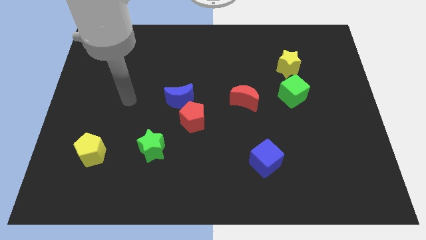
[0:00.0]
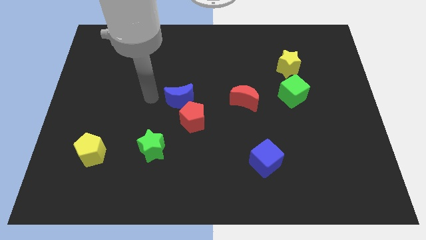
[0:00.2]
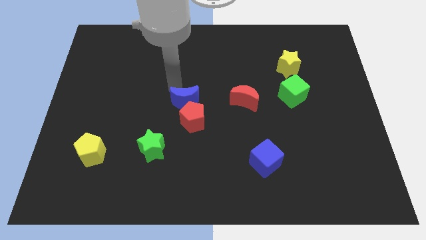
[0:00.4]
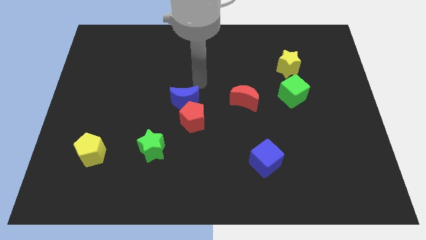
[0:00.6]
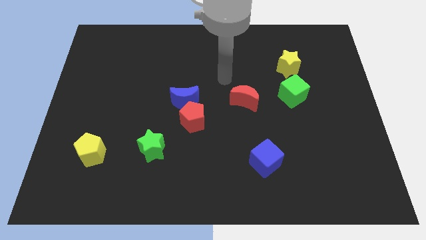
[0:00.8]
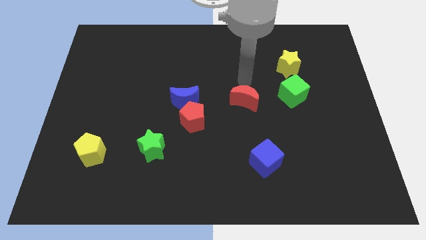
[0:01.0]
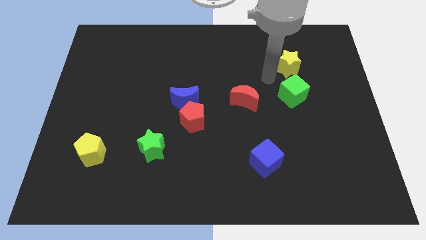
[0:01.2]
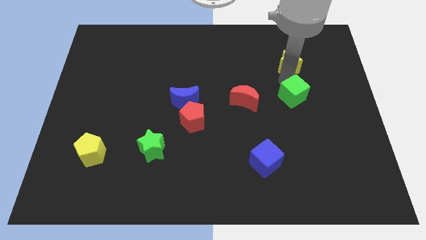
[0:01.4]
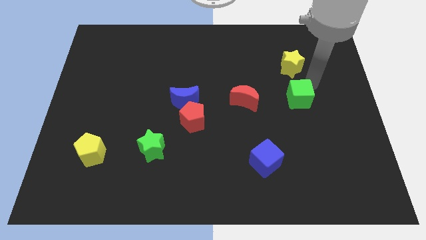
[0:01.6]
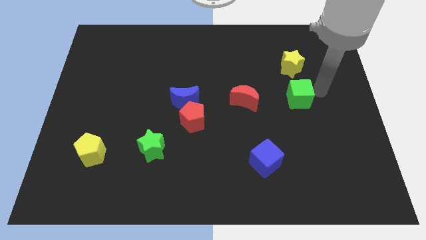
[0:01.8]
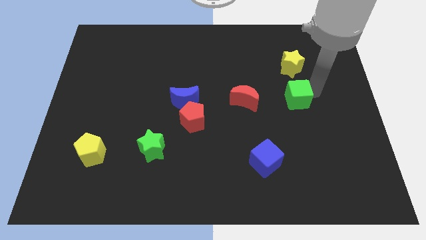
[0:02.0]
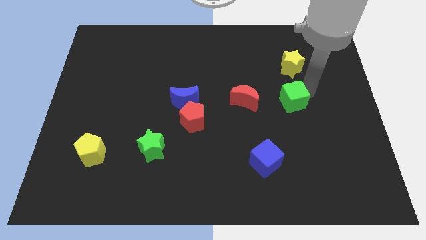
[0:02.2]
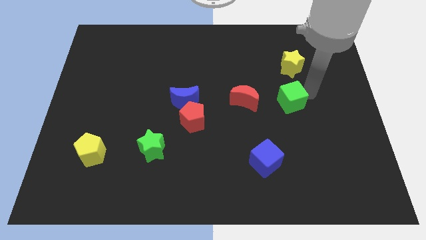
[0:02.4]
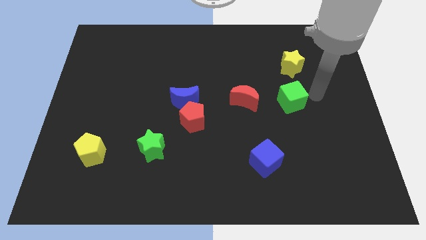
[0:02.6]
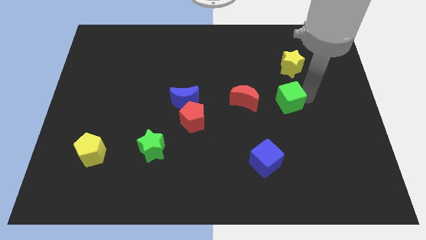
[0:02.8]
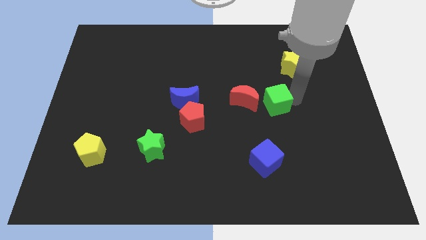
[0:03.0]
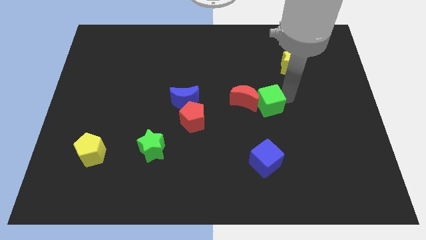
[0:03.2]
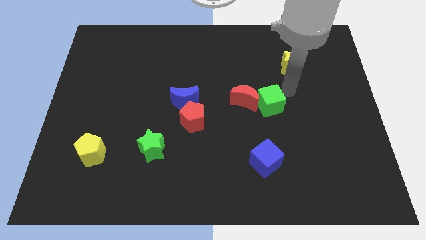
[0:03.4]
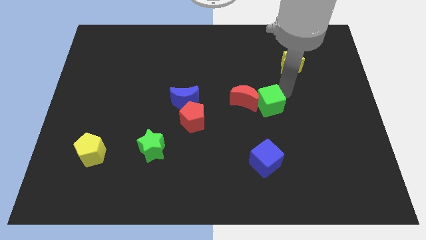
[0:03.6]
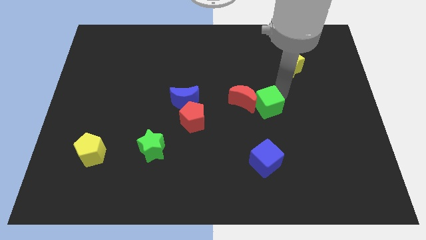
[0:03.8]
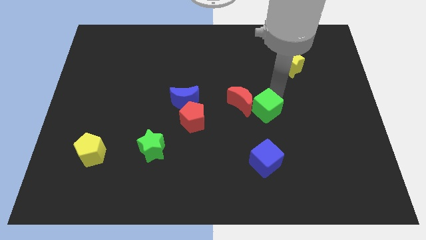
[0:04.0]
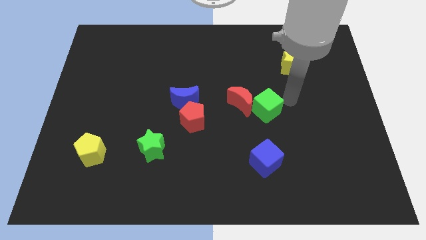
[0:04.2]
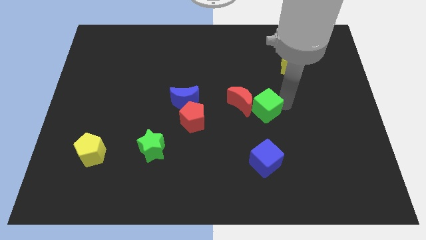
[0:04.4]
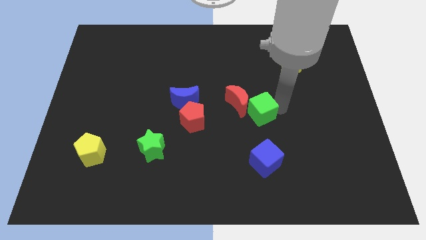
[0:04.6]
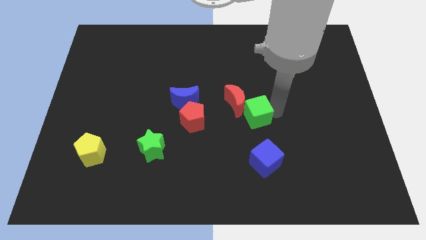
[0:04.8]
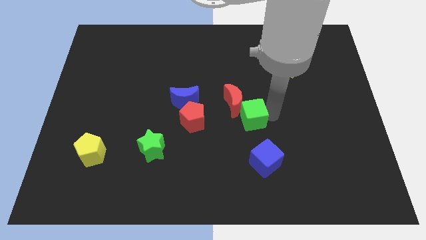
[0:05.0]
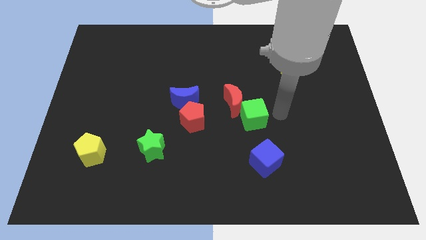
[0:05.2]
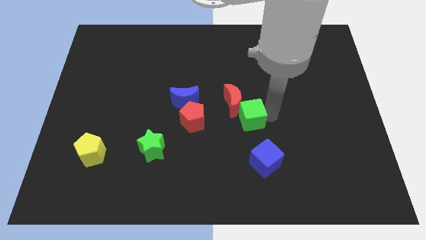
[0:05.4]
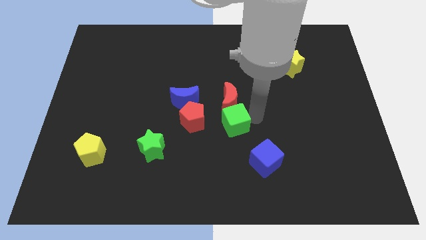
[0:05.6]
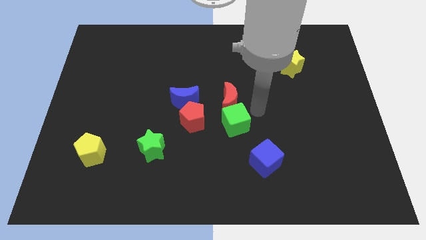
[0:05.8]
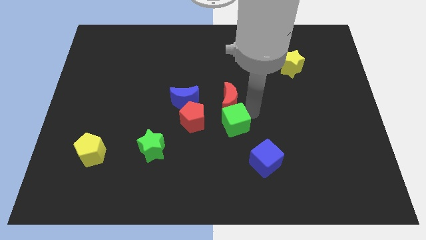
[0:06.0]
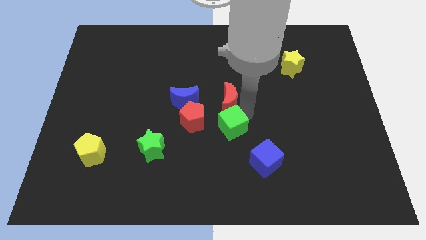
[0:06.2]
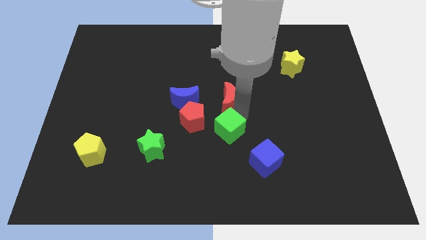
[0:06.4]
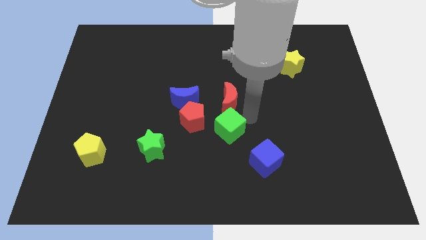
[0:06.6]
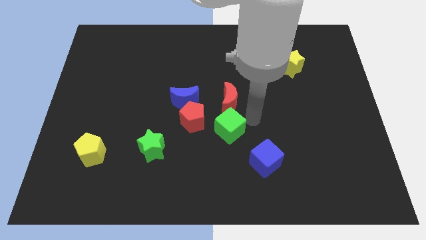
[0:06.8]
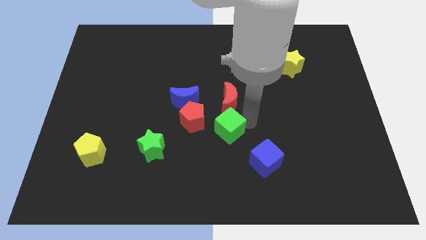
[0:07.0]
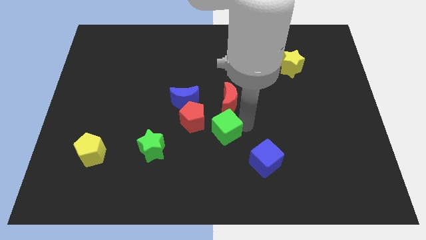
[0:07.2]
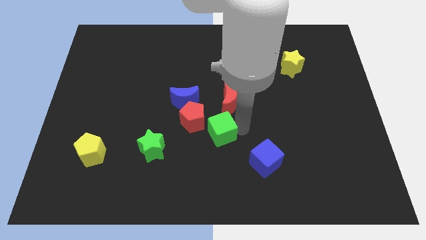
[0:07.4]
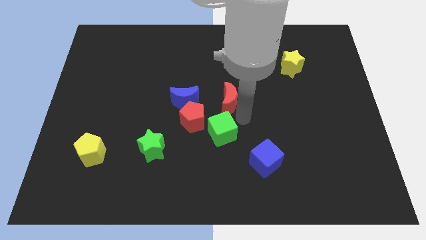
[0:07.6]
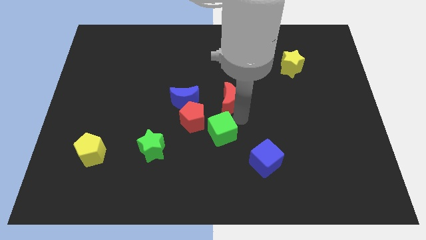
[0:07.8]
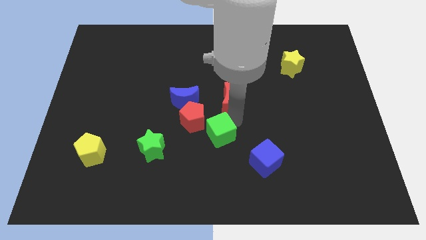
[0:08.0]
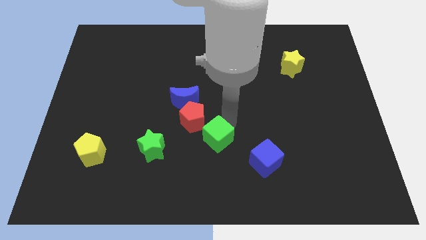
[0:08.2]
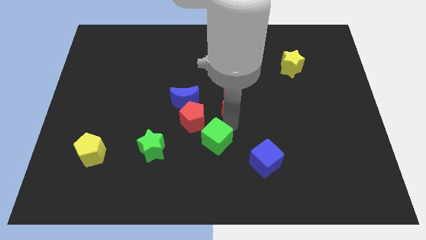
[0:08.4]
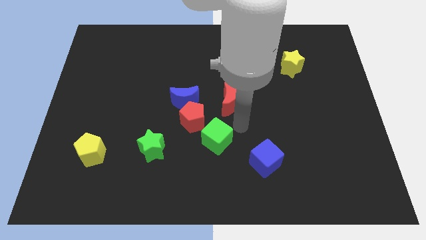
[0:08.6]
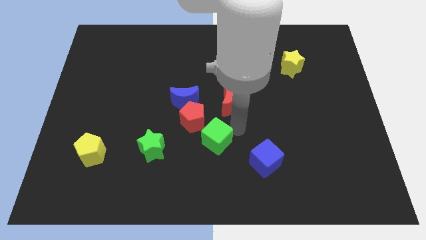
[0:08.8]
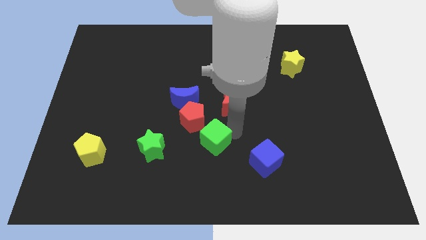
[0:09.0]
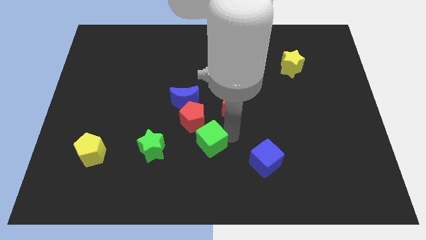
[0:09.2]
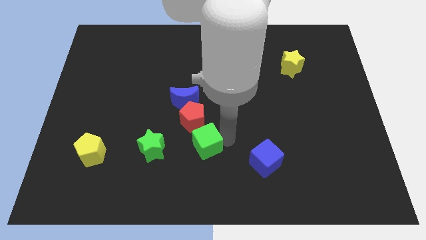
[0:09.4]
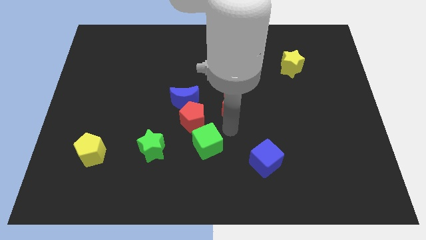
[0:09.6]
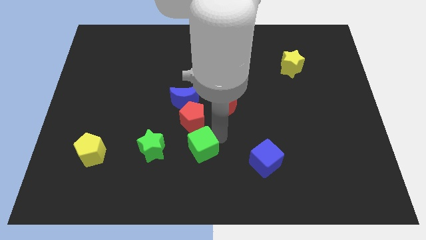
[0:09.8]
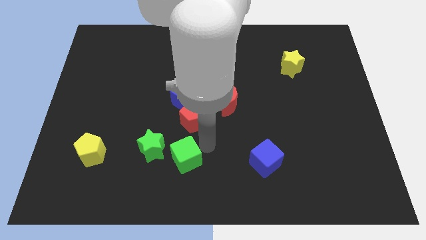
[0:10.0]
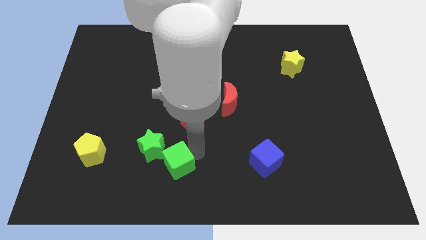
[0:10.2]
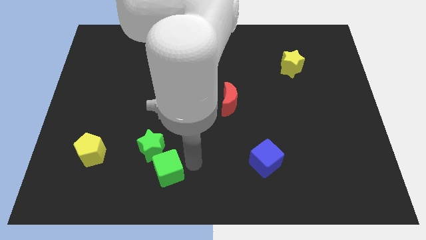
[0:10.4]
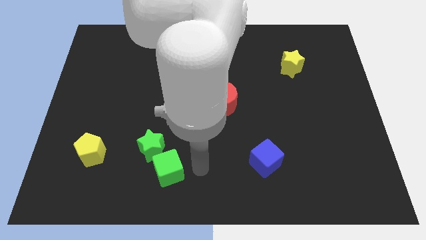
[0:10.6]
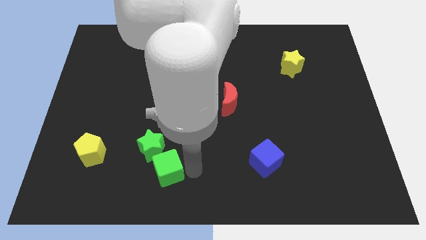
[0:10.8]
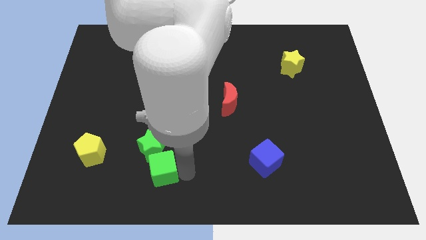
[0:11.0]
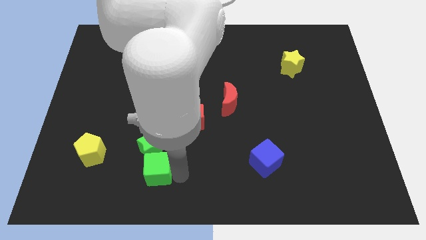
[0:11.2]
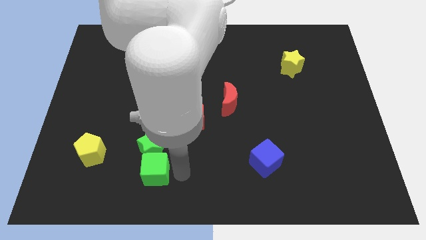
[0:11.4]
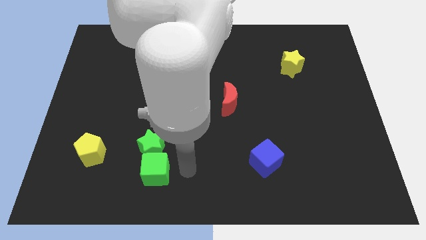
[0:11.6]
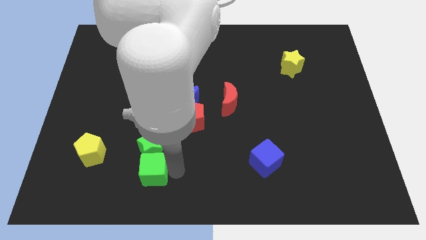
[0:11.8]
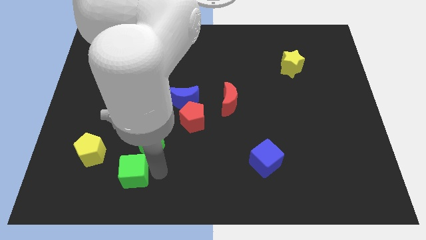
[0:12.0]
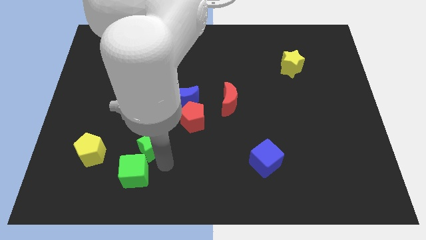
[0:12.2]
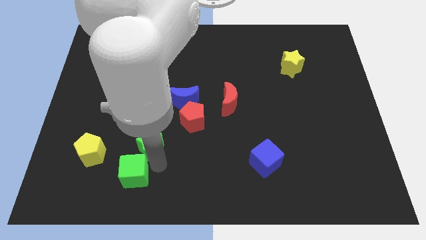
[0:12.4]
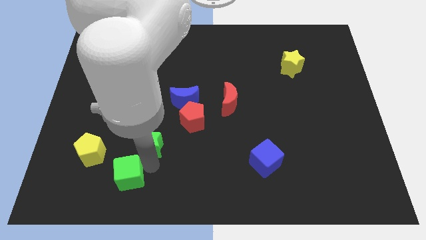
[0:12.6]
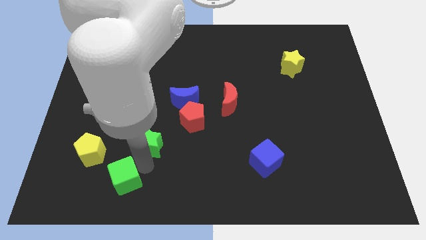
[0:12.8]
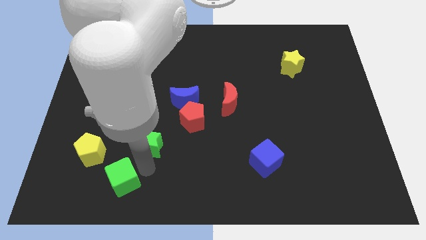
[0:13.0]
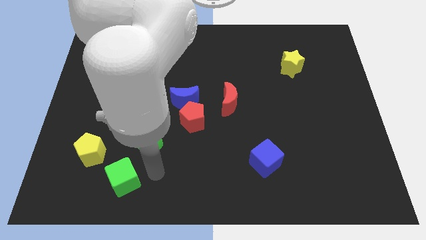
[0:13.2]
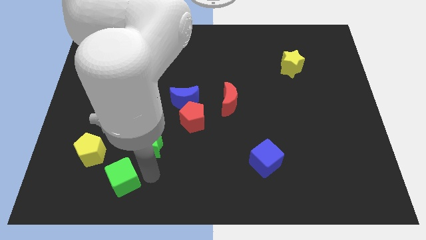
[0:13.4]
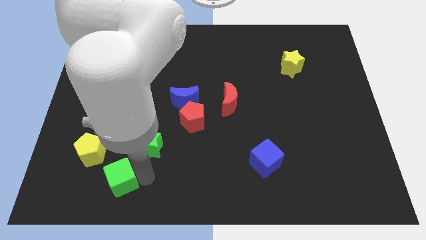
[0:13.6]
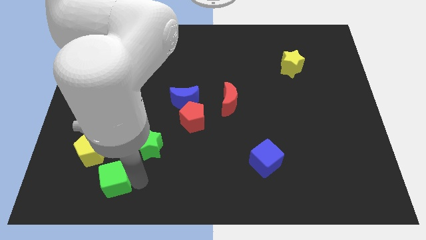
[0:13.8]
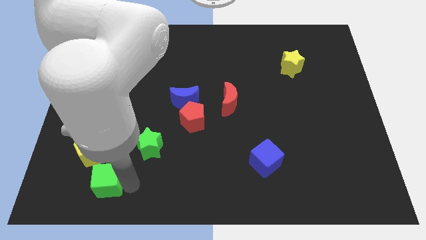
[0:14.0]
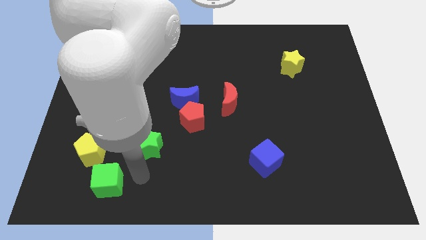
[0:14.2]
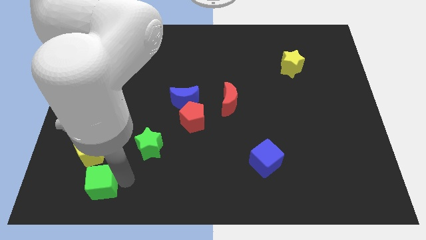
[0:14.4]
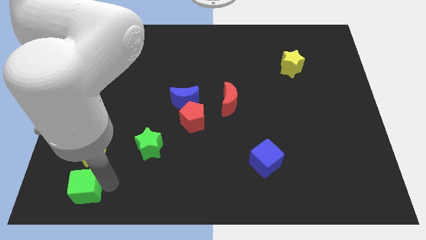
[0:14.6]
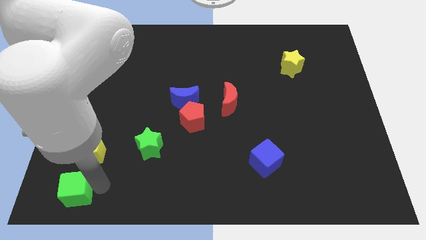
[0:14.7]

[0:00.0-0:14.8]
put the green cube to the bottom left
